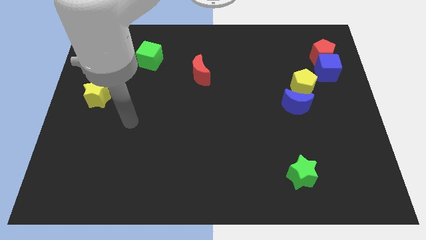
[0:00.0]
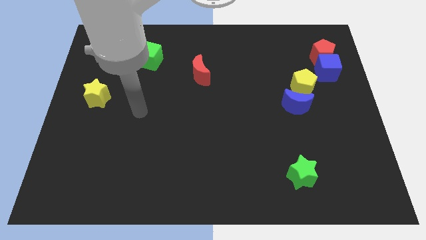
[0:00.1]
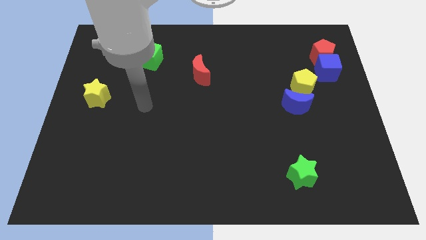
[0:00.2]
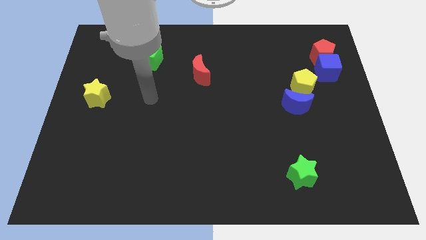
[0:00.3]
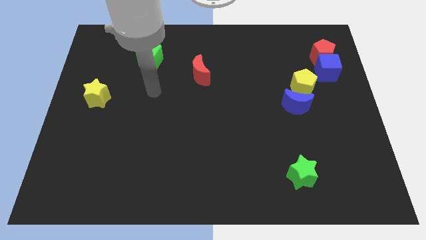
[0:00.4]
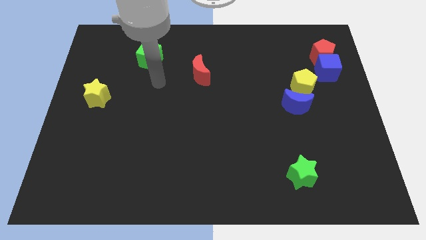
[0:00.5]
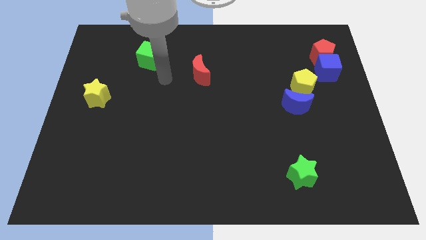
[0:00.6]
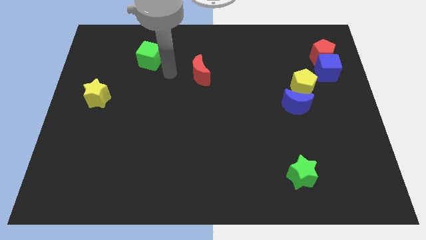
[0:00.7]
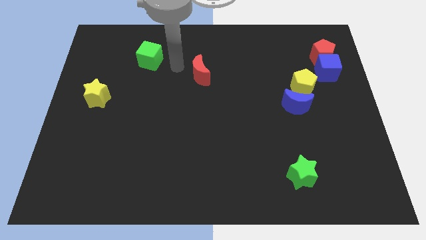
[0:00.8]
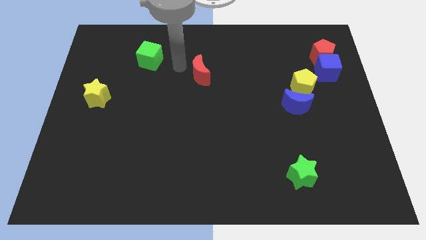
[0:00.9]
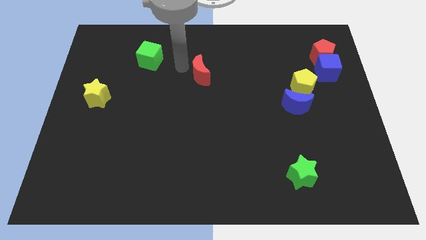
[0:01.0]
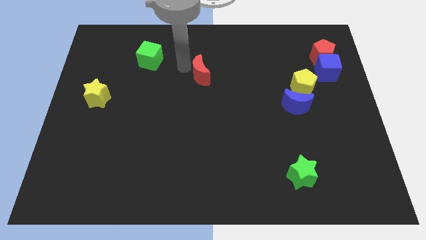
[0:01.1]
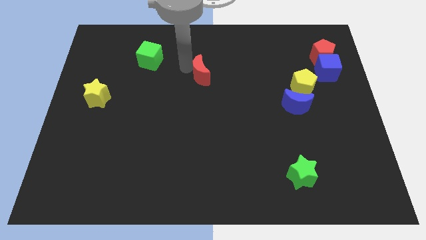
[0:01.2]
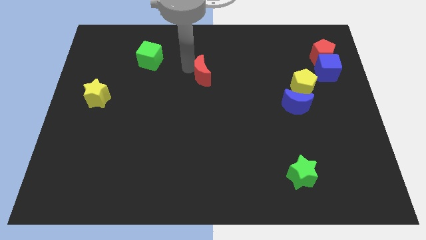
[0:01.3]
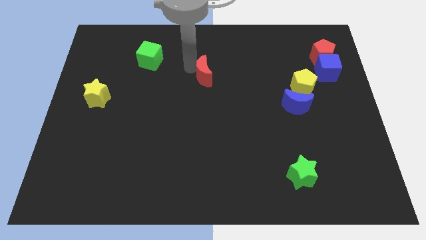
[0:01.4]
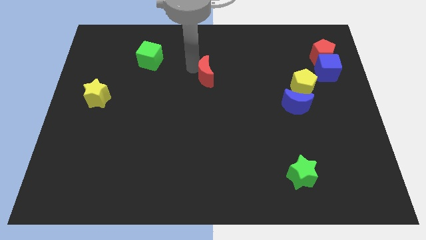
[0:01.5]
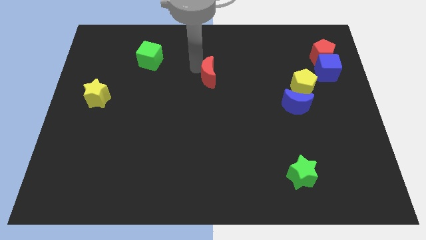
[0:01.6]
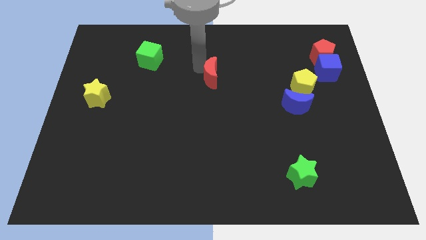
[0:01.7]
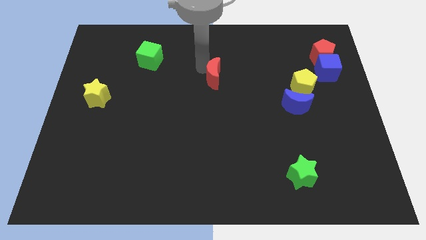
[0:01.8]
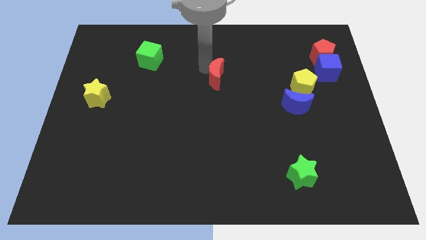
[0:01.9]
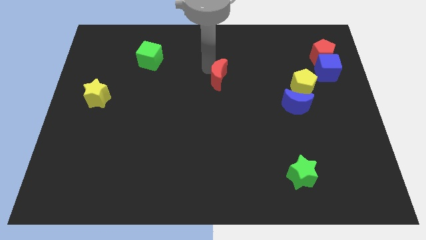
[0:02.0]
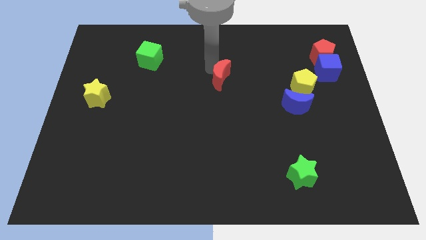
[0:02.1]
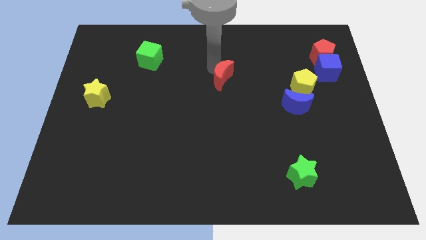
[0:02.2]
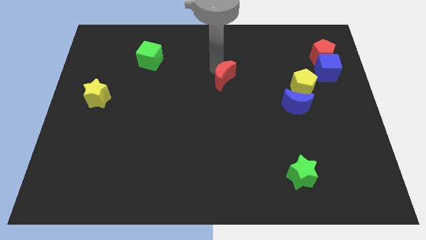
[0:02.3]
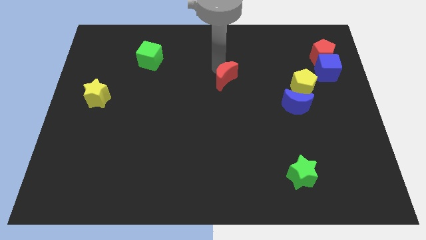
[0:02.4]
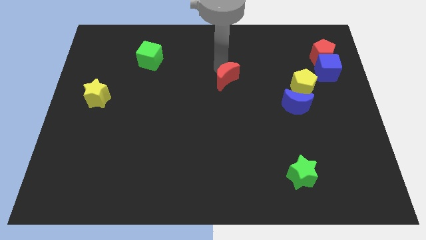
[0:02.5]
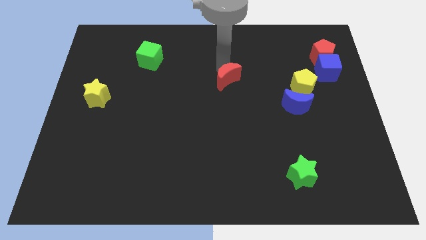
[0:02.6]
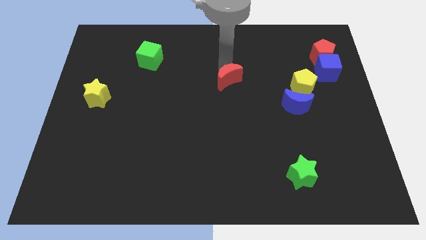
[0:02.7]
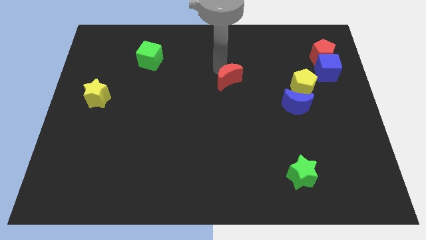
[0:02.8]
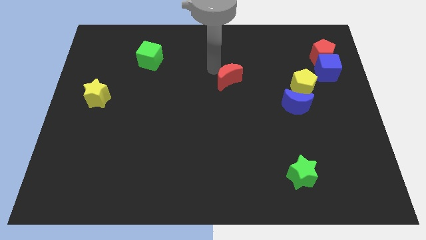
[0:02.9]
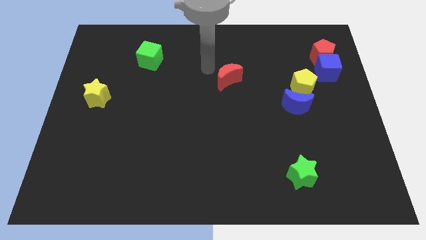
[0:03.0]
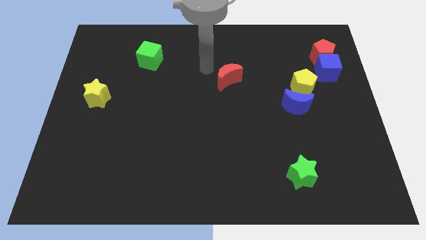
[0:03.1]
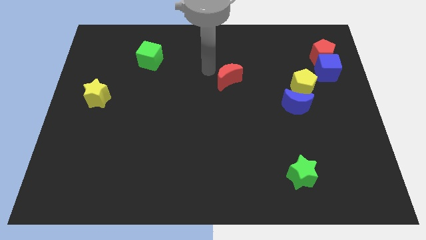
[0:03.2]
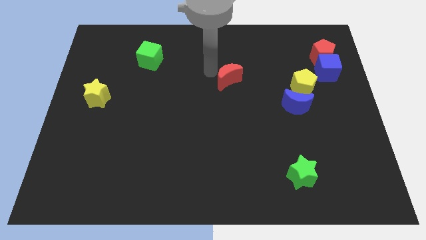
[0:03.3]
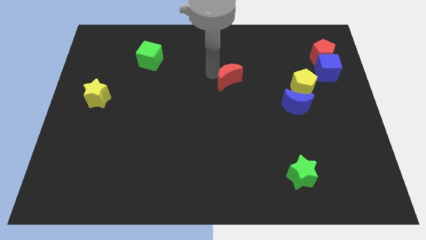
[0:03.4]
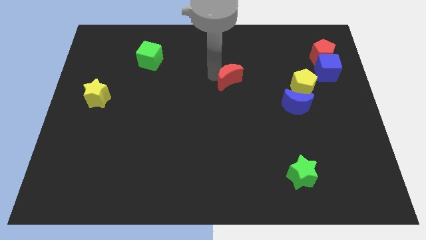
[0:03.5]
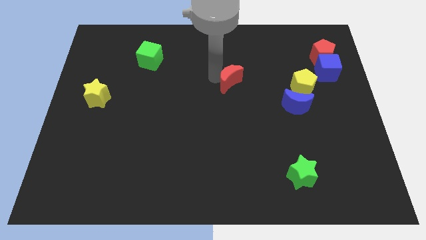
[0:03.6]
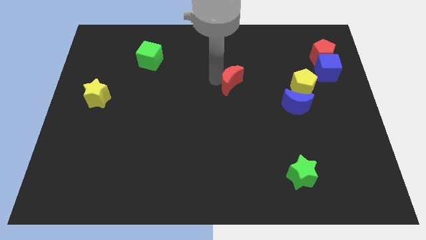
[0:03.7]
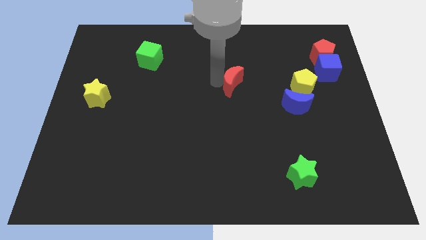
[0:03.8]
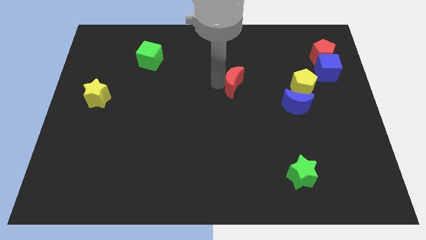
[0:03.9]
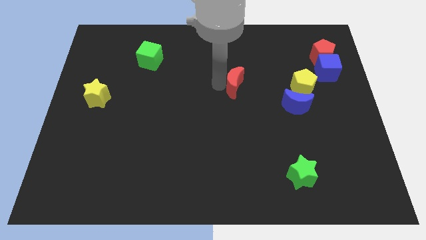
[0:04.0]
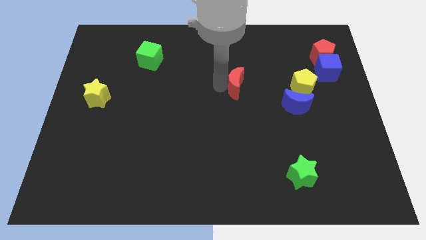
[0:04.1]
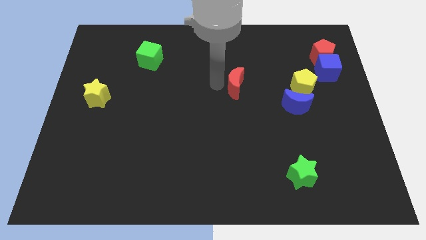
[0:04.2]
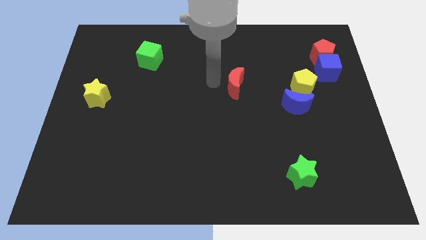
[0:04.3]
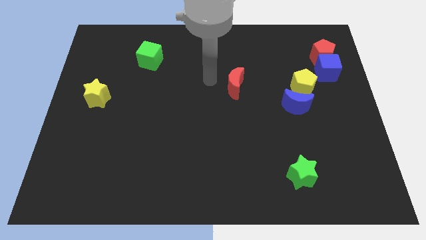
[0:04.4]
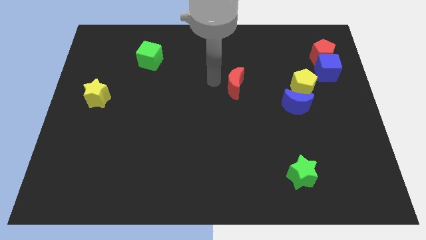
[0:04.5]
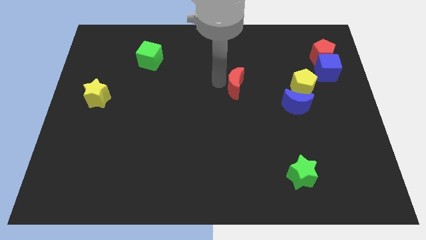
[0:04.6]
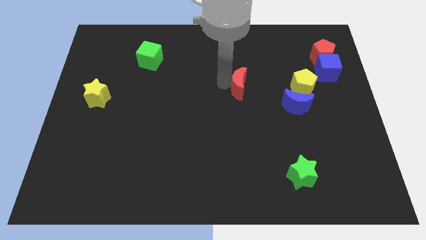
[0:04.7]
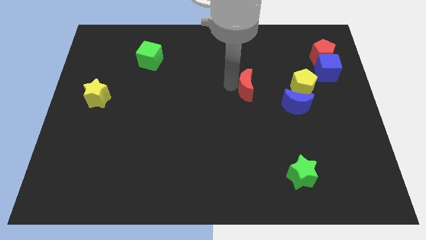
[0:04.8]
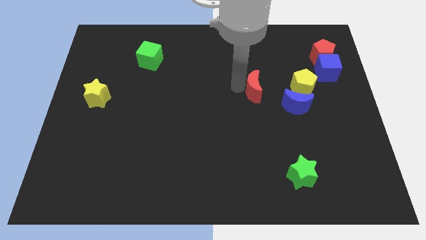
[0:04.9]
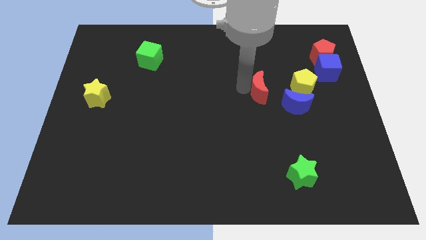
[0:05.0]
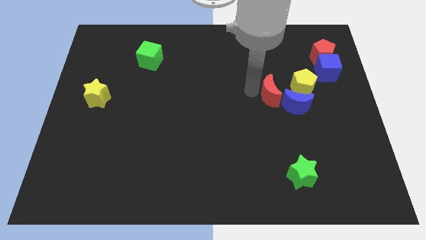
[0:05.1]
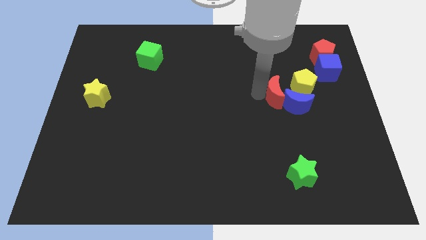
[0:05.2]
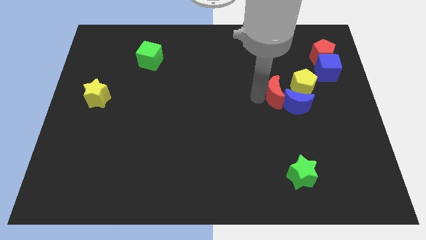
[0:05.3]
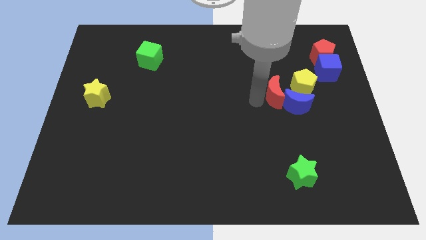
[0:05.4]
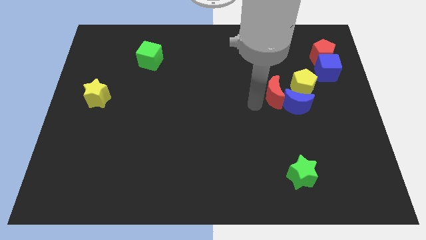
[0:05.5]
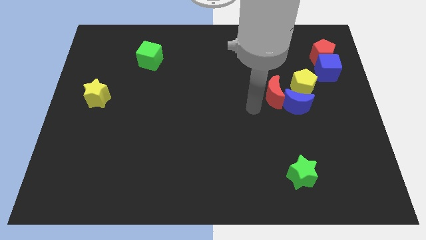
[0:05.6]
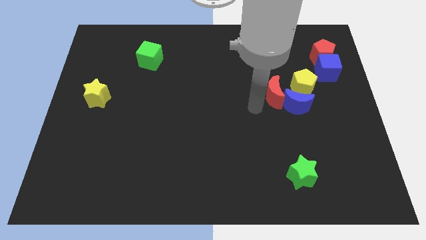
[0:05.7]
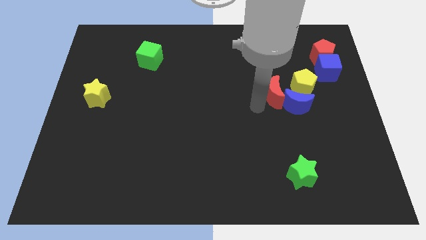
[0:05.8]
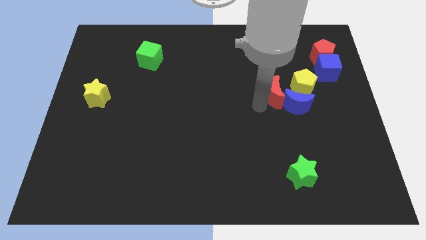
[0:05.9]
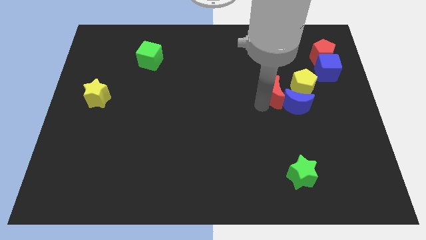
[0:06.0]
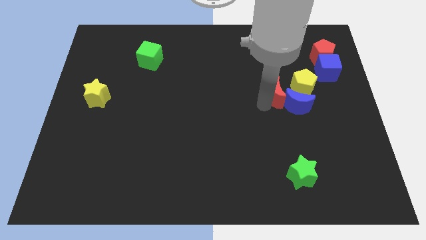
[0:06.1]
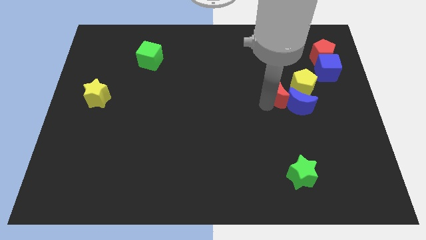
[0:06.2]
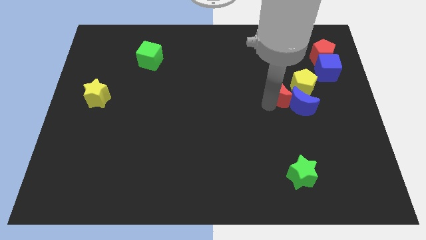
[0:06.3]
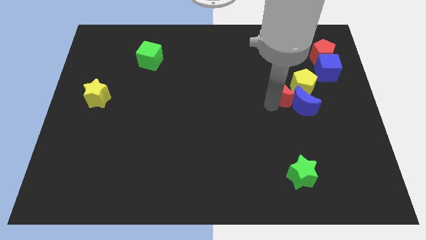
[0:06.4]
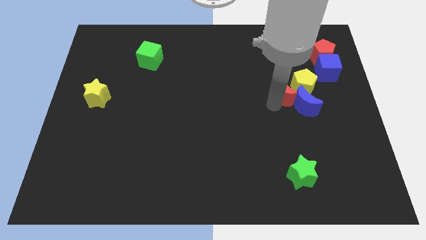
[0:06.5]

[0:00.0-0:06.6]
push the red moon to the yellow pentagon
